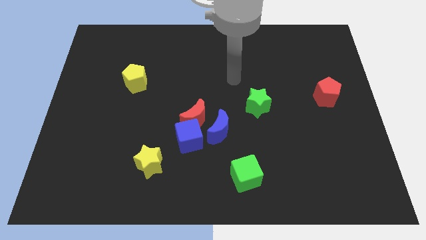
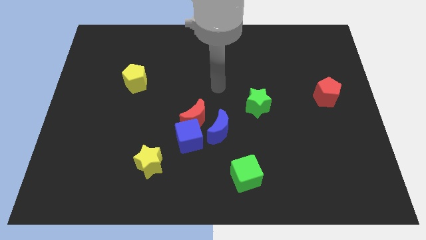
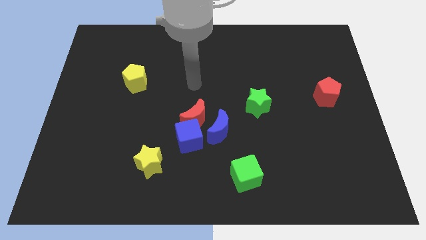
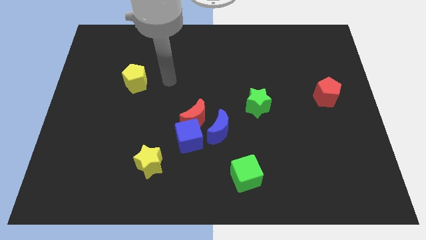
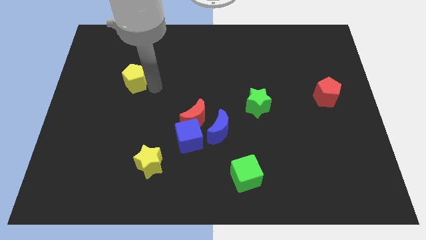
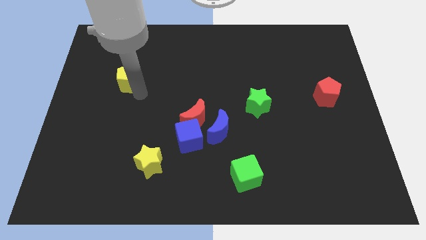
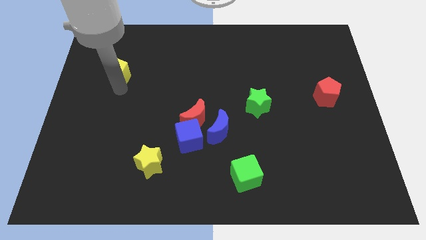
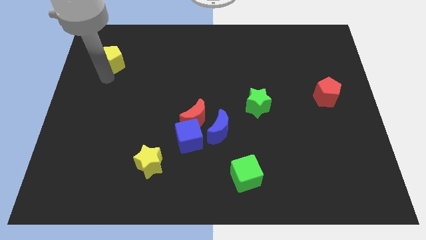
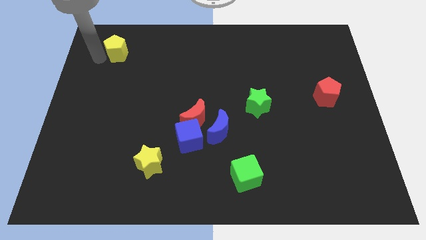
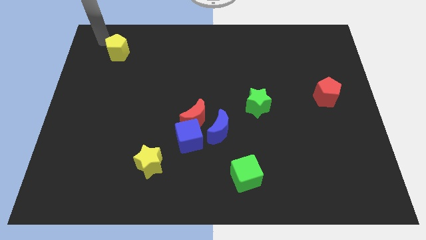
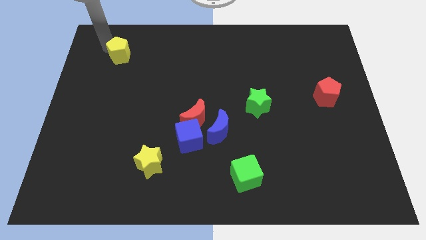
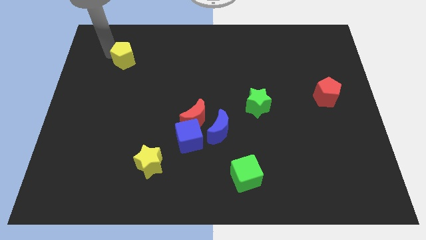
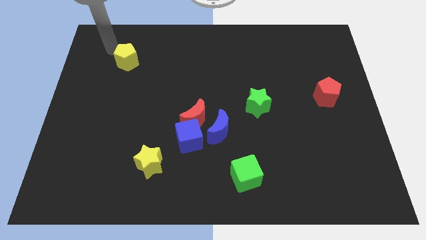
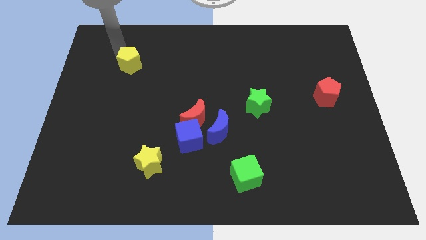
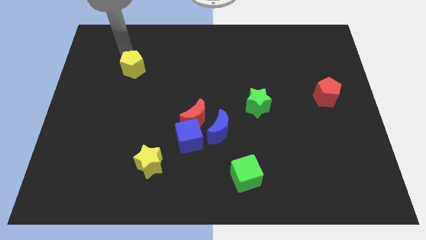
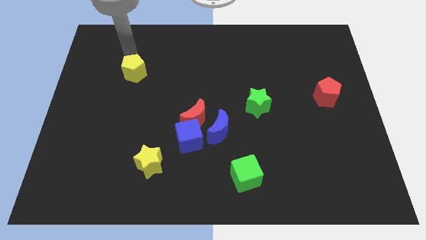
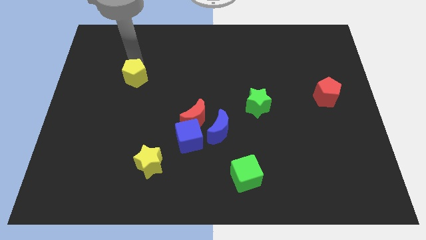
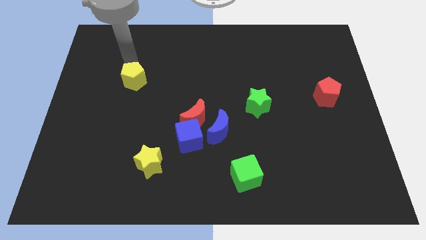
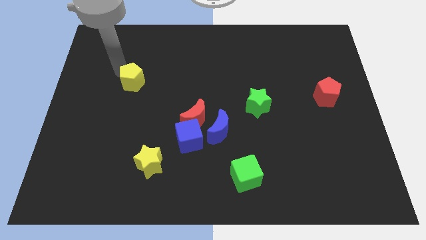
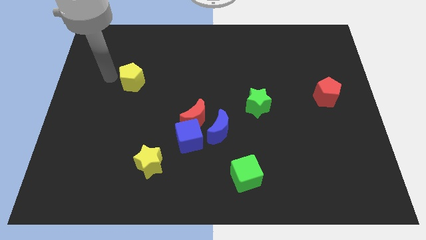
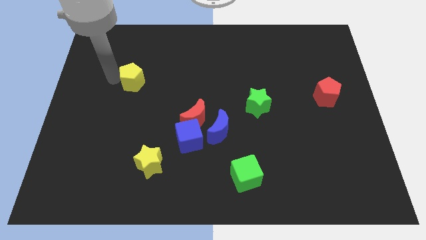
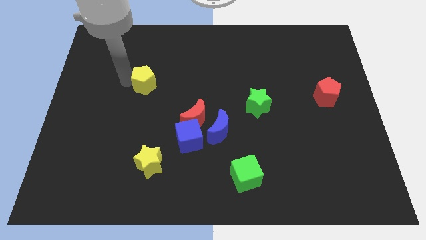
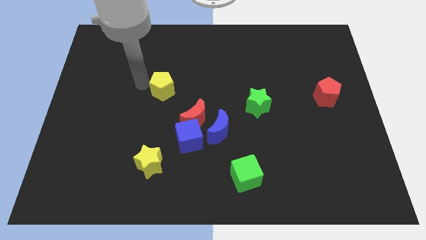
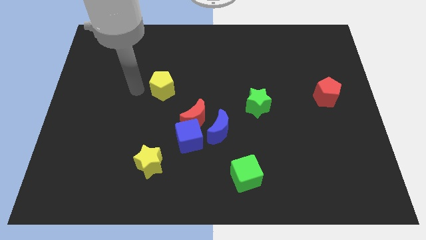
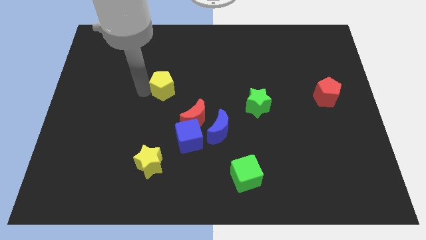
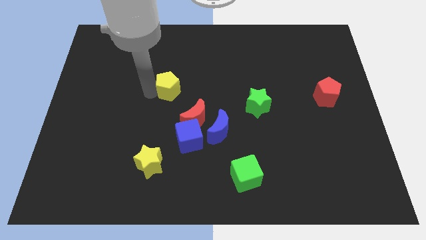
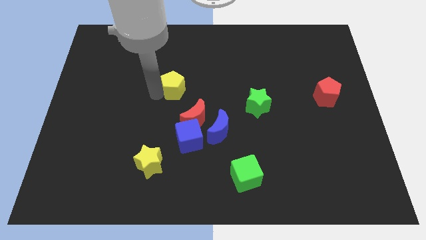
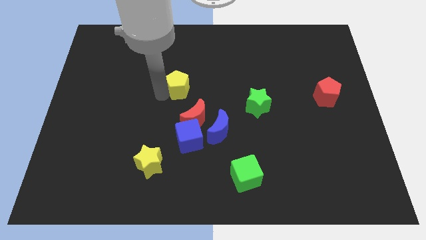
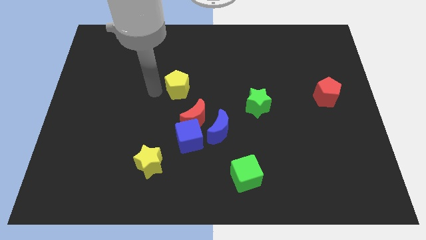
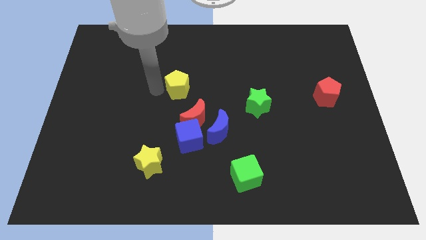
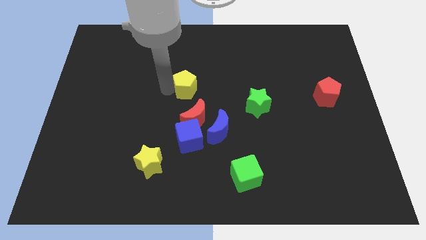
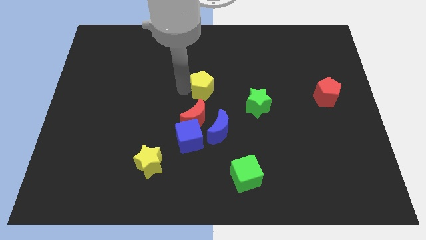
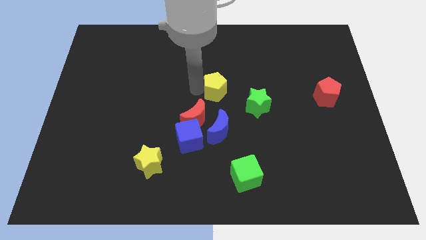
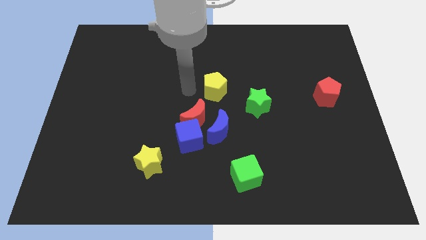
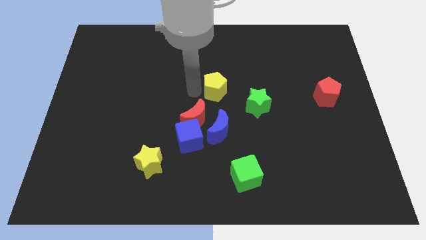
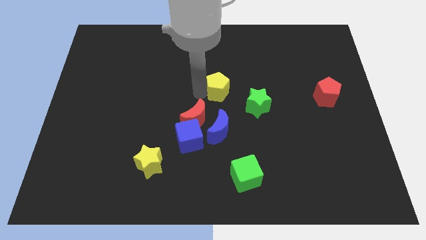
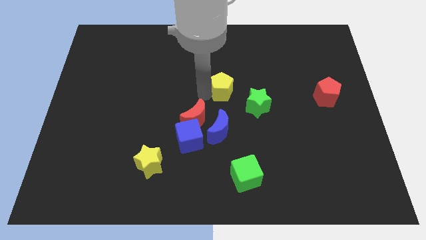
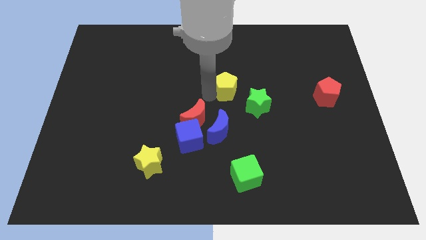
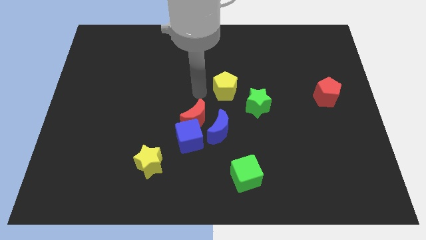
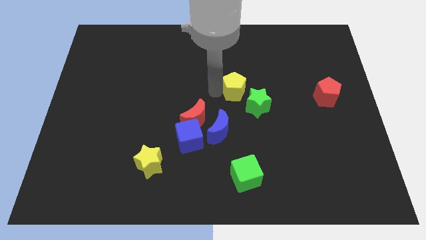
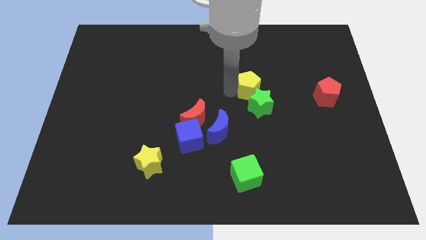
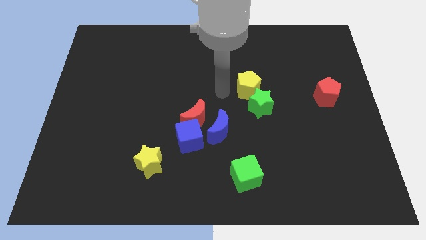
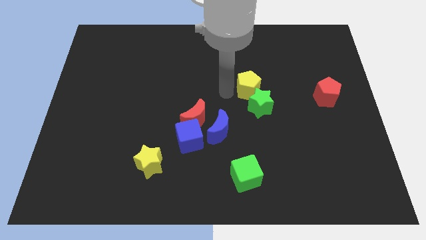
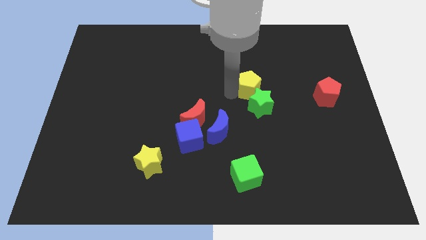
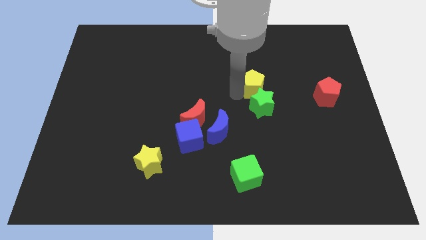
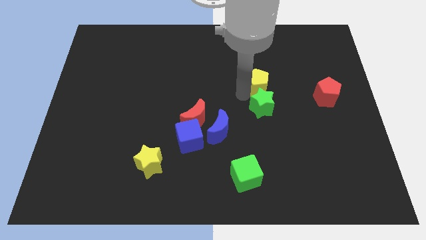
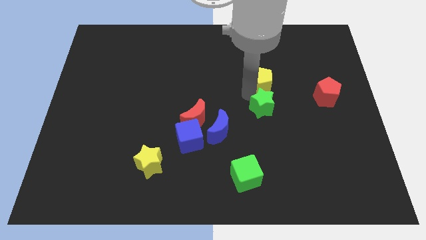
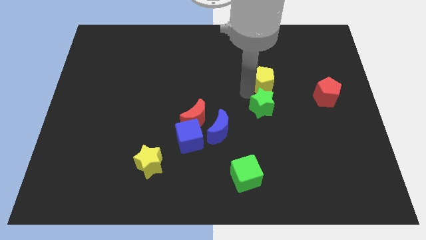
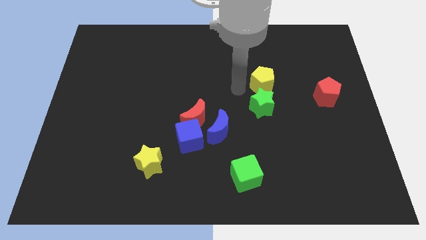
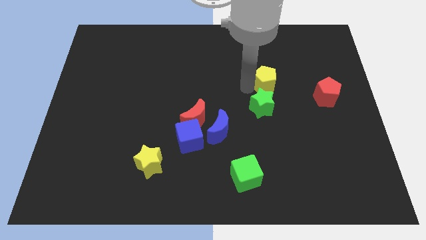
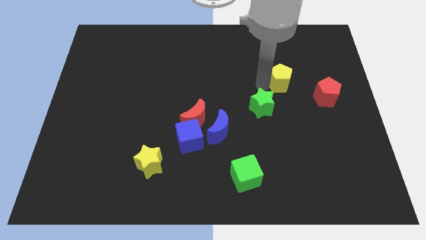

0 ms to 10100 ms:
slide the yellow pentagon to the top left of the red pentagon

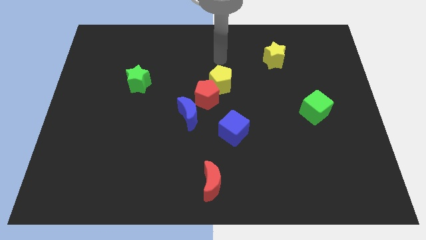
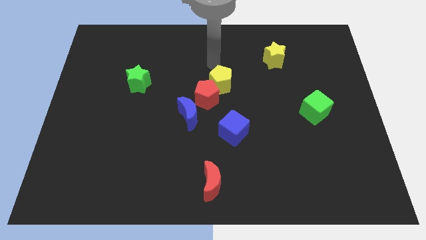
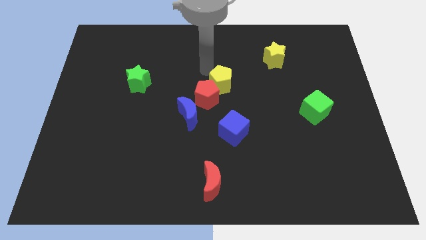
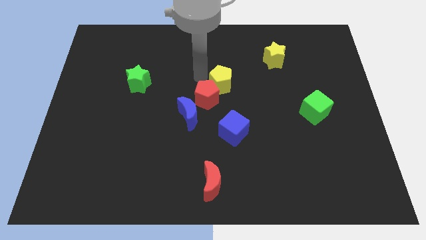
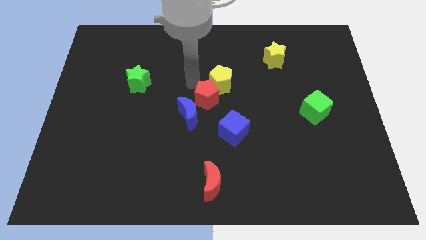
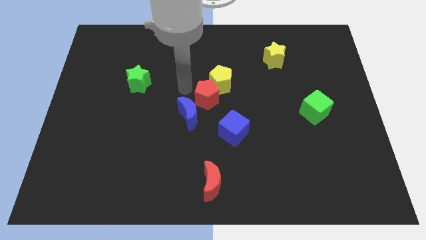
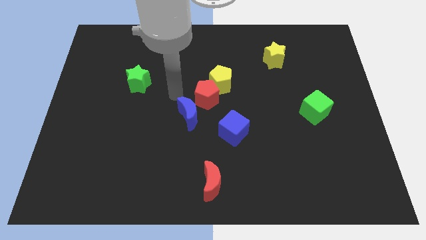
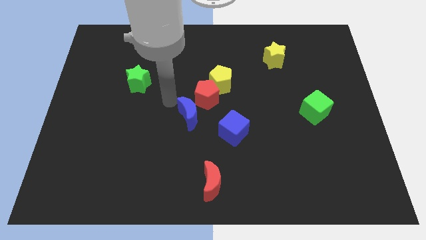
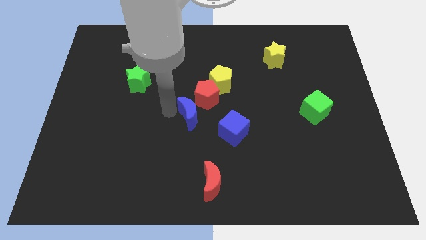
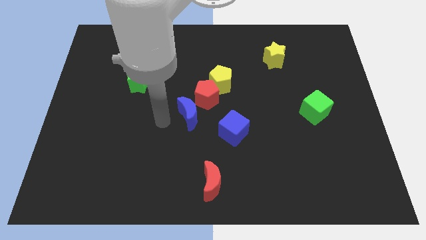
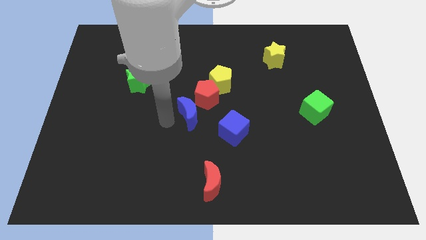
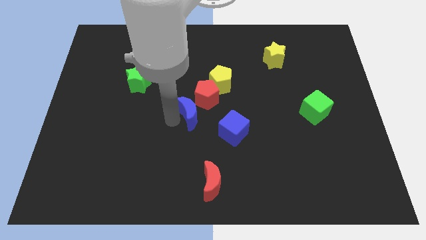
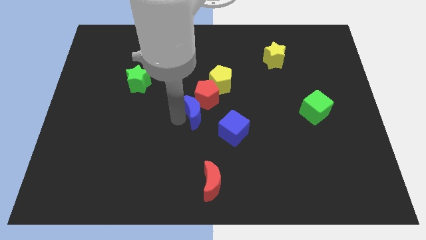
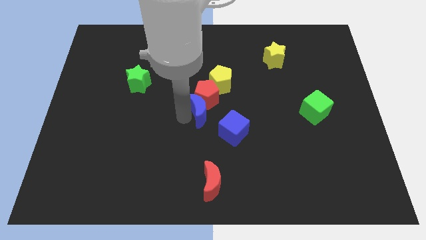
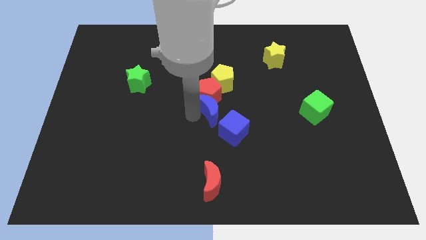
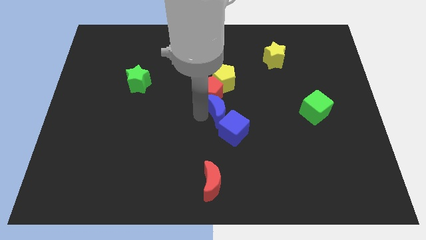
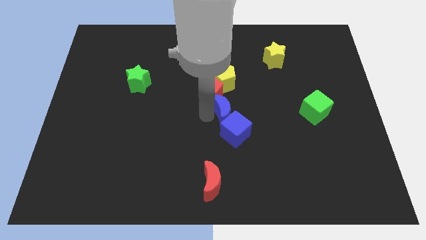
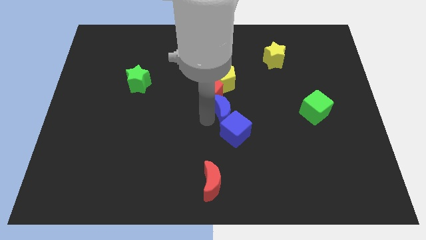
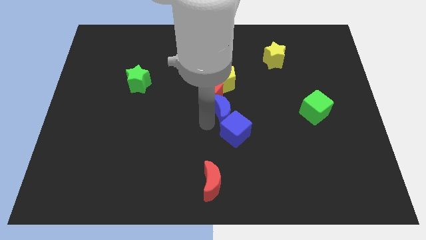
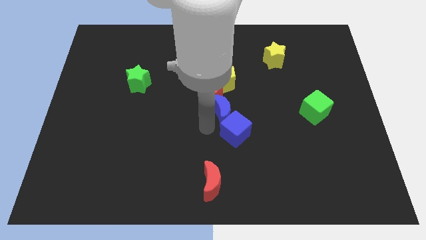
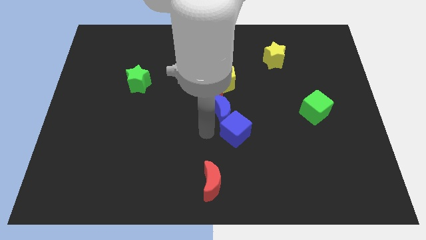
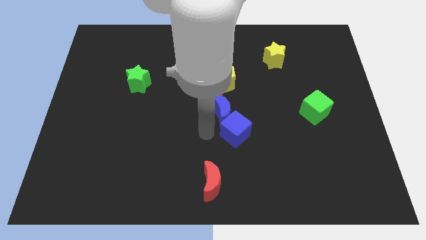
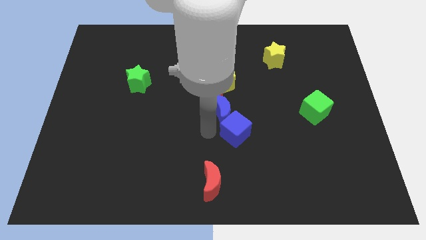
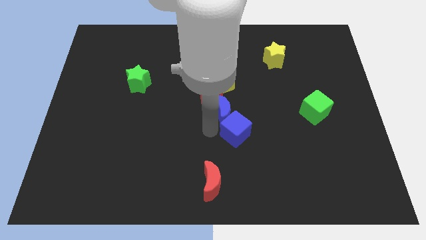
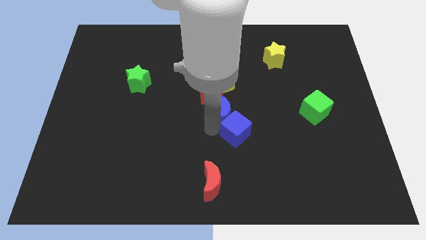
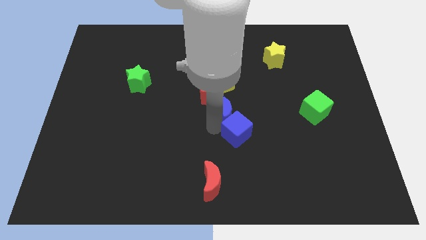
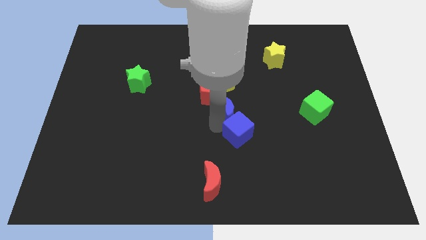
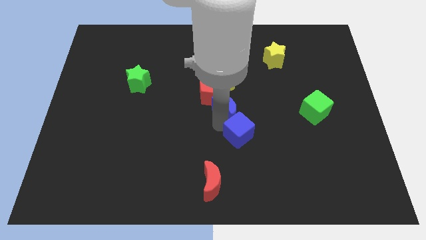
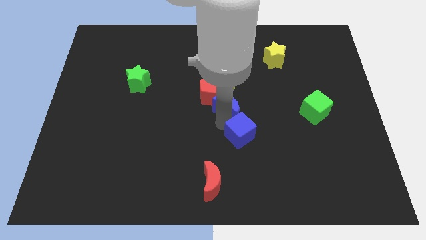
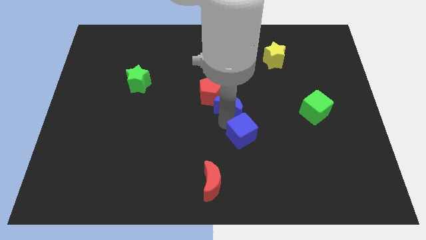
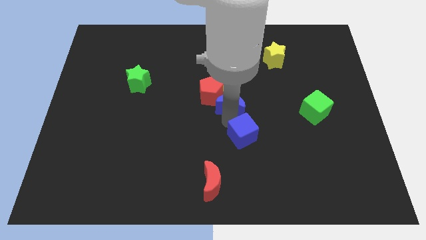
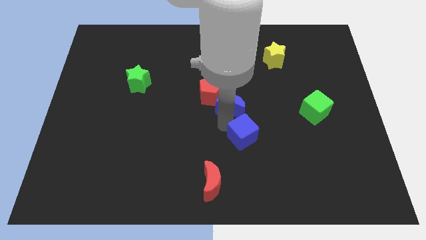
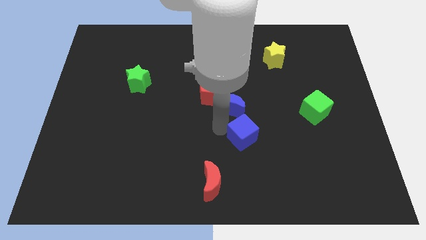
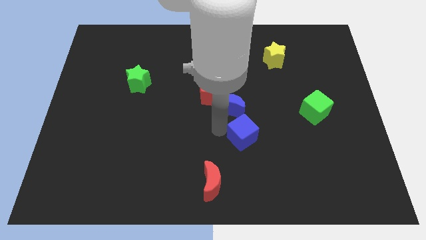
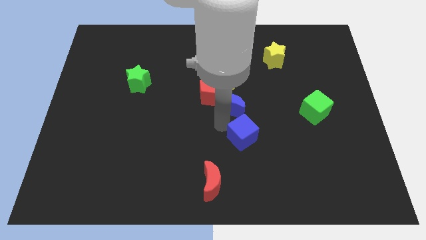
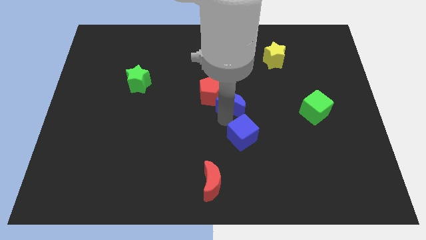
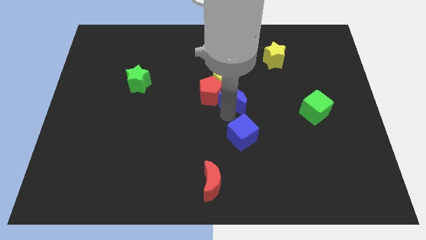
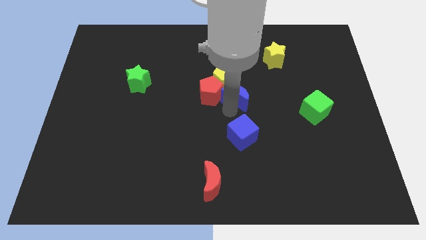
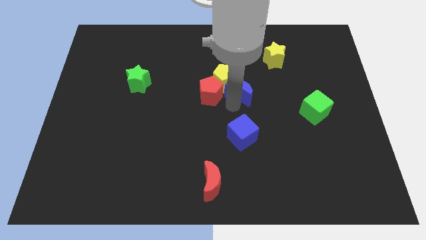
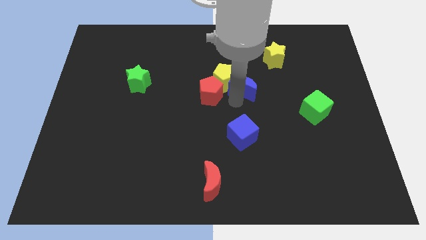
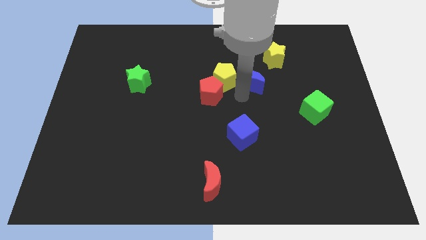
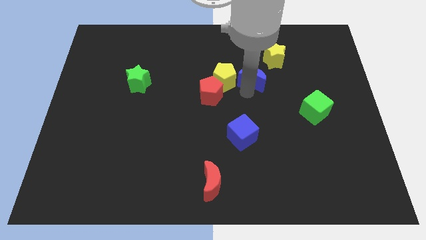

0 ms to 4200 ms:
slide the blue moon to the top right of the yellow pentagon
